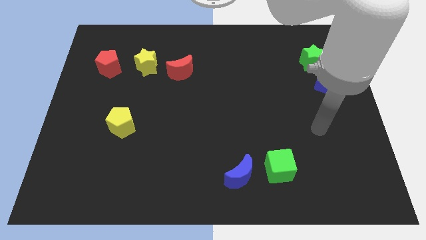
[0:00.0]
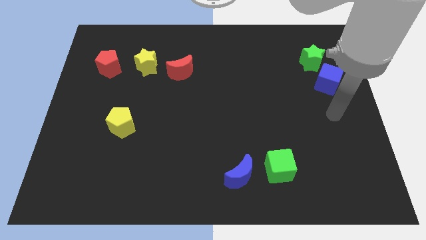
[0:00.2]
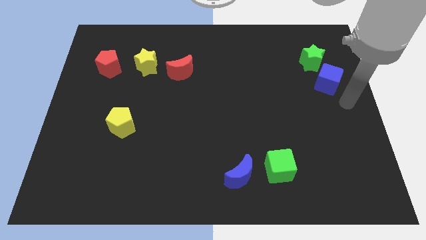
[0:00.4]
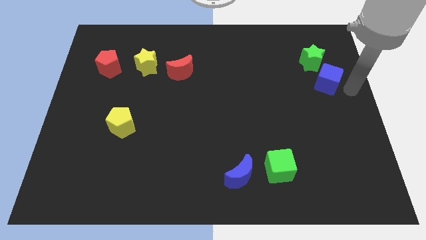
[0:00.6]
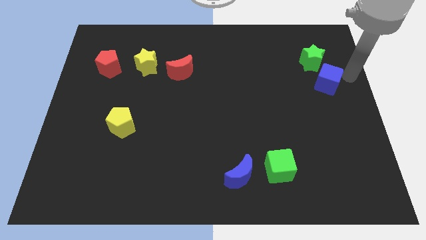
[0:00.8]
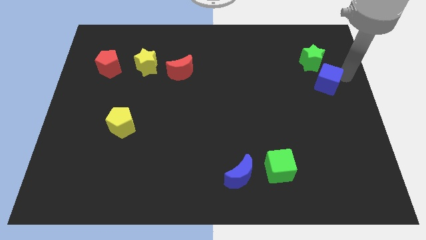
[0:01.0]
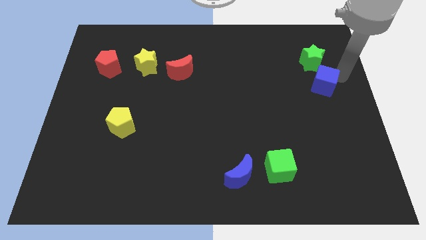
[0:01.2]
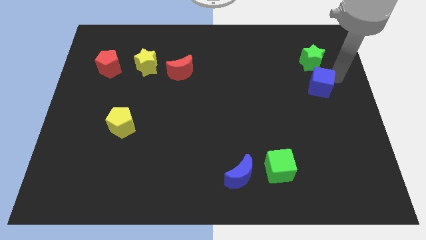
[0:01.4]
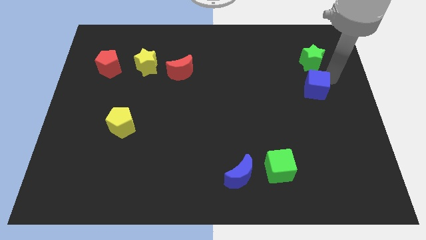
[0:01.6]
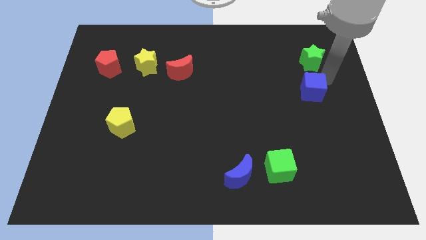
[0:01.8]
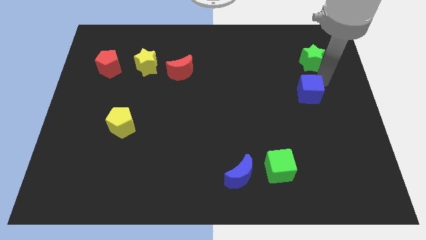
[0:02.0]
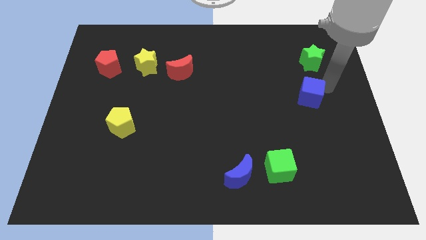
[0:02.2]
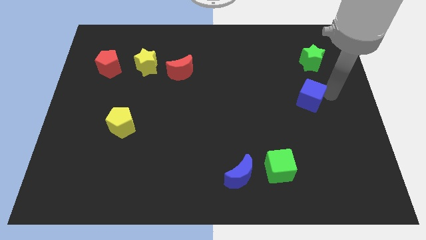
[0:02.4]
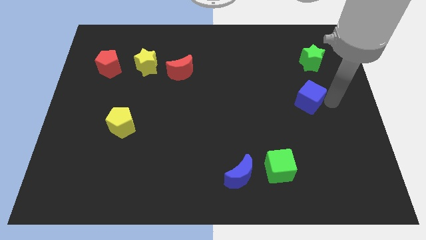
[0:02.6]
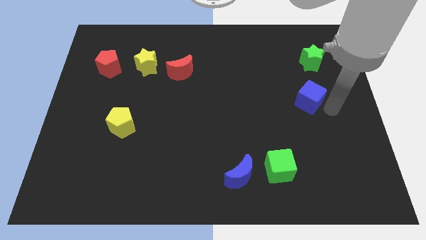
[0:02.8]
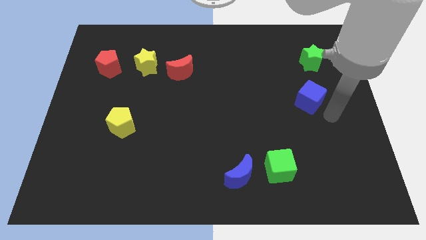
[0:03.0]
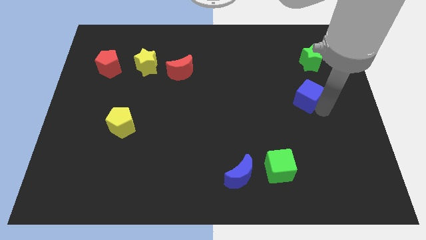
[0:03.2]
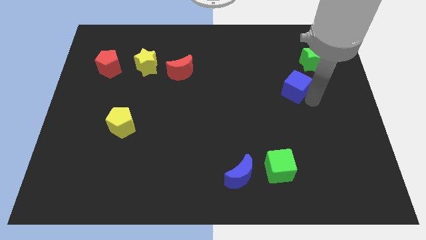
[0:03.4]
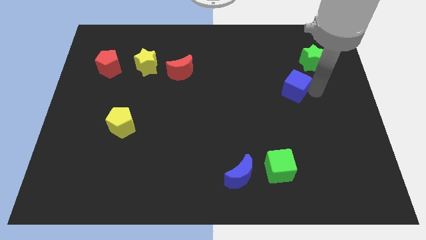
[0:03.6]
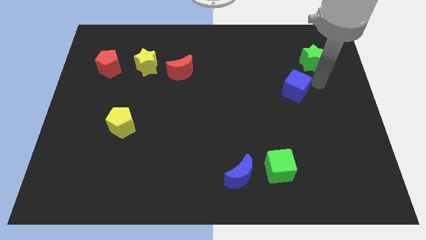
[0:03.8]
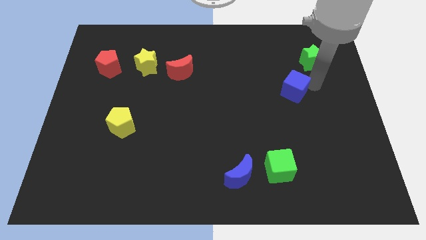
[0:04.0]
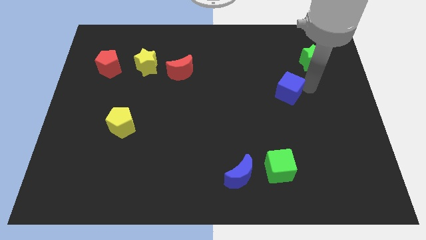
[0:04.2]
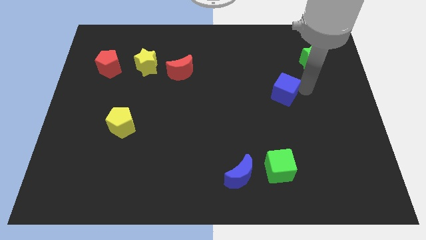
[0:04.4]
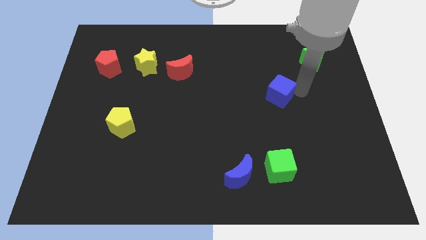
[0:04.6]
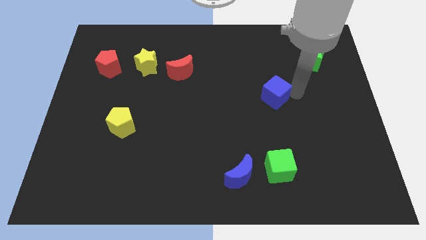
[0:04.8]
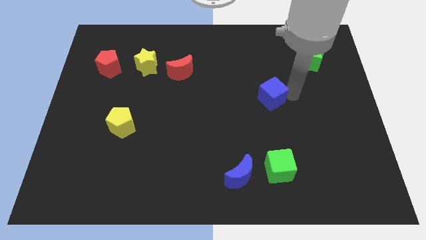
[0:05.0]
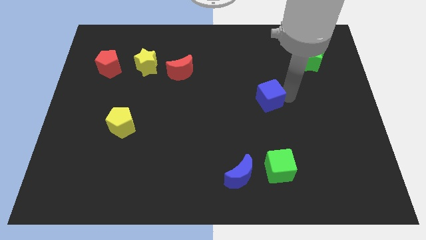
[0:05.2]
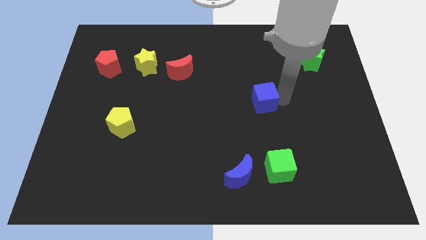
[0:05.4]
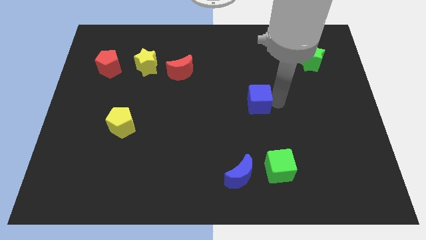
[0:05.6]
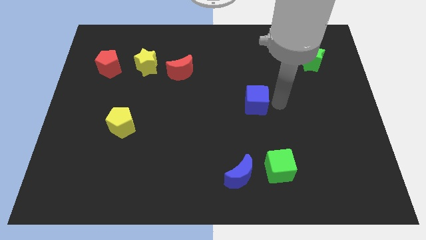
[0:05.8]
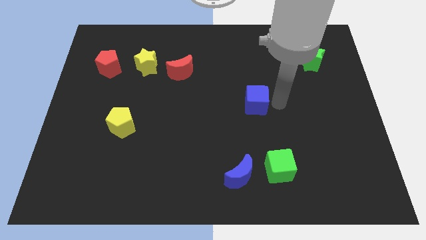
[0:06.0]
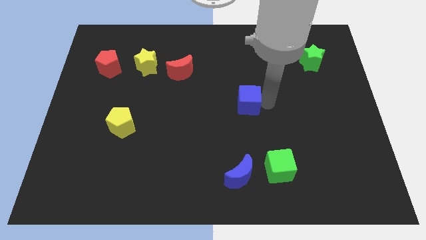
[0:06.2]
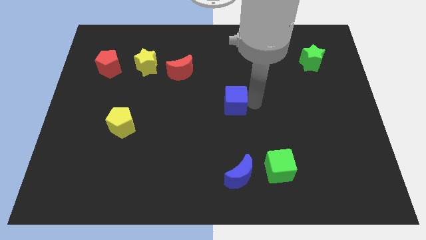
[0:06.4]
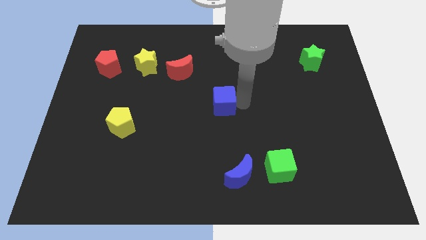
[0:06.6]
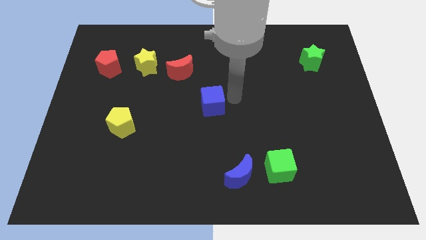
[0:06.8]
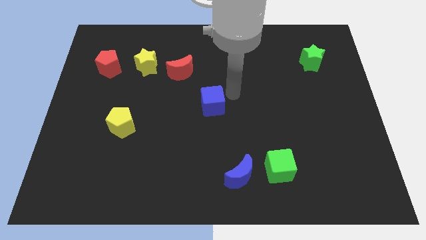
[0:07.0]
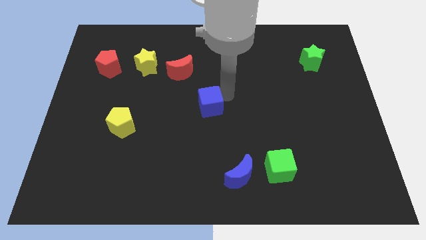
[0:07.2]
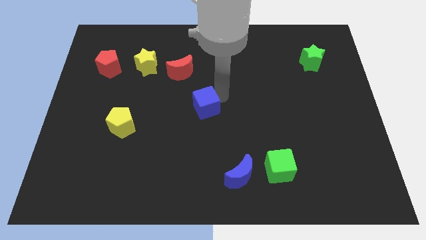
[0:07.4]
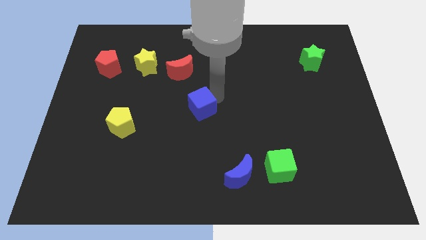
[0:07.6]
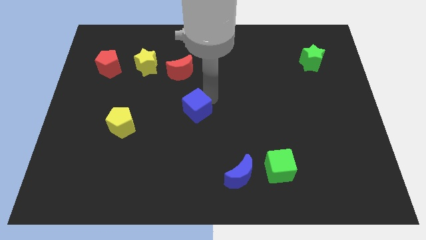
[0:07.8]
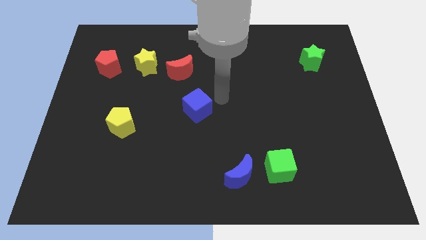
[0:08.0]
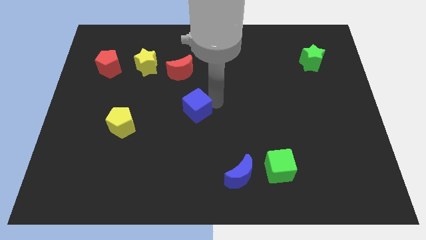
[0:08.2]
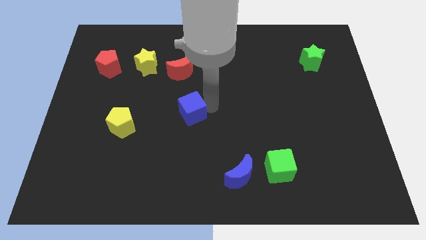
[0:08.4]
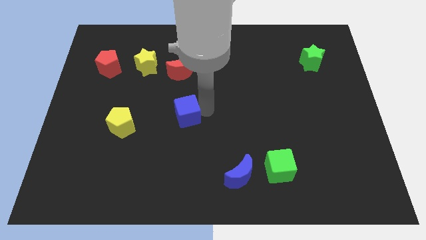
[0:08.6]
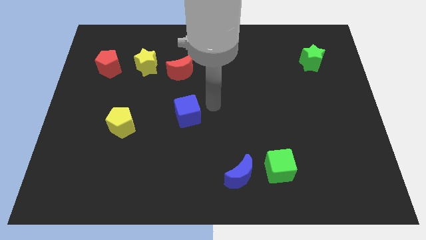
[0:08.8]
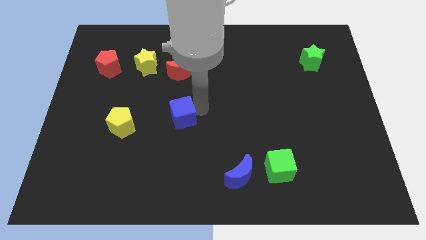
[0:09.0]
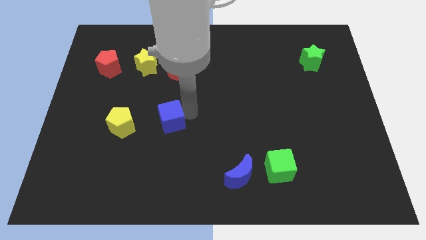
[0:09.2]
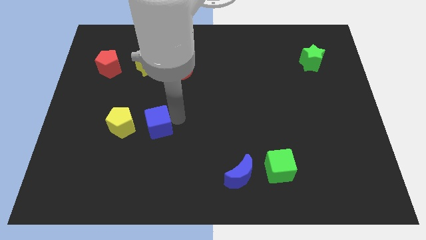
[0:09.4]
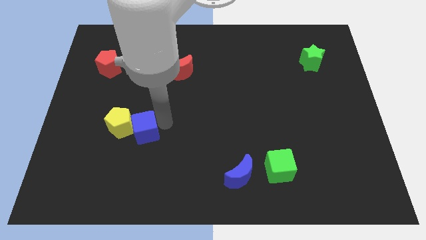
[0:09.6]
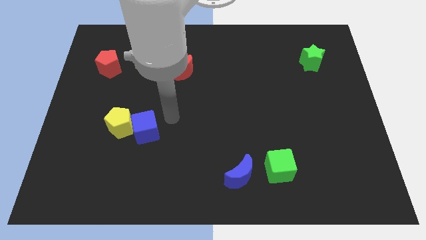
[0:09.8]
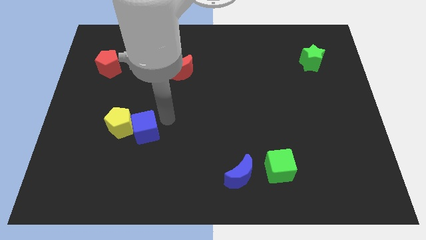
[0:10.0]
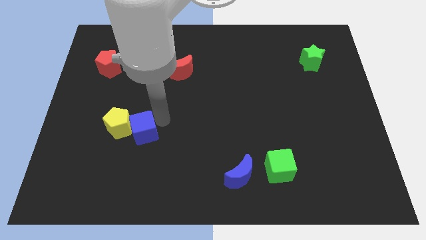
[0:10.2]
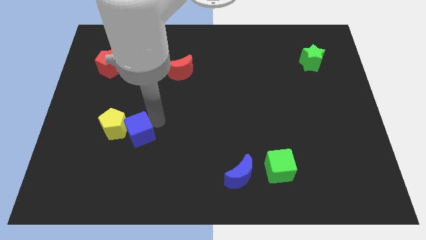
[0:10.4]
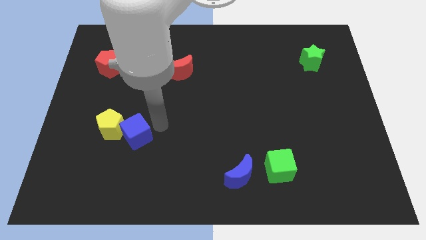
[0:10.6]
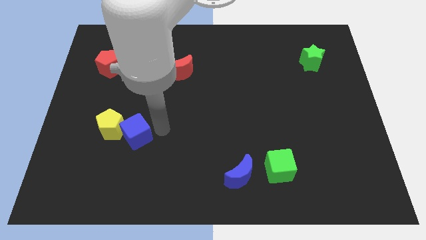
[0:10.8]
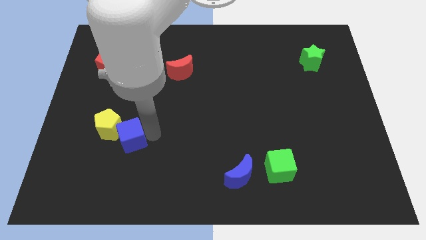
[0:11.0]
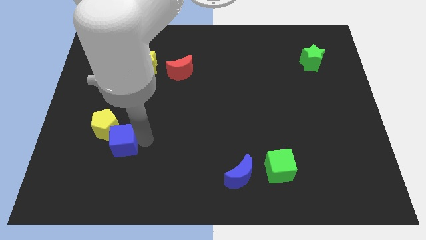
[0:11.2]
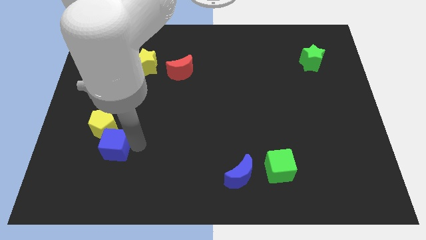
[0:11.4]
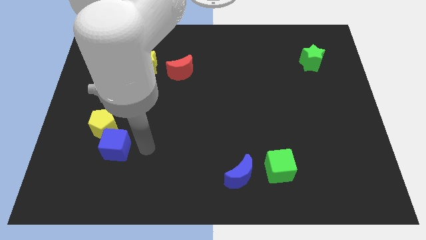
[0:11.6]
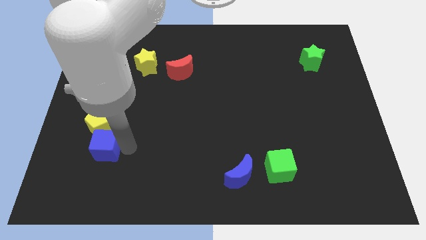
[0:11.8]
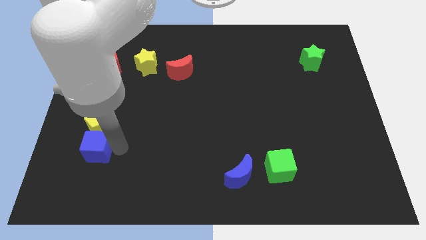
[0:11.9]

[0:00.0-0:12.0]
put the blue cube to the bottom left of the yellow pentagon
